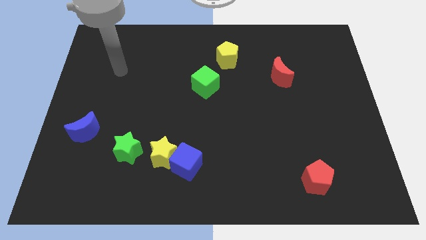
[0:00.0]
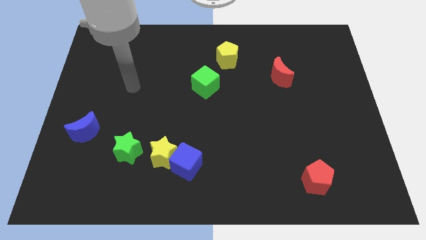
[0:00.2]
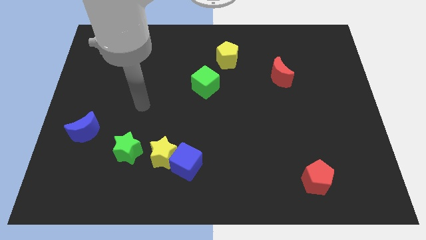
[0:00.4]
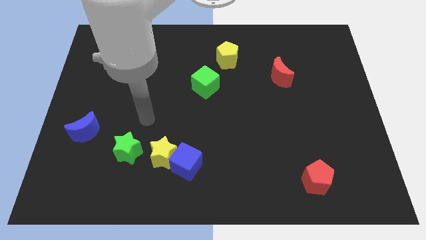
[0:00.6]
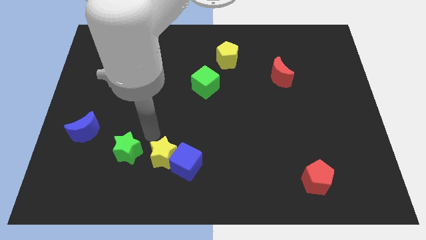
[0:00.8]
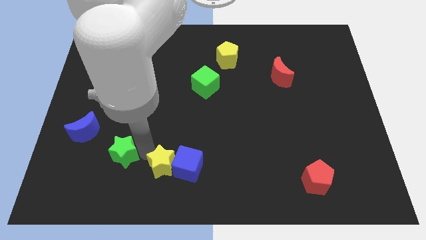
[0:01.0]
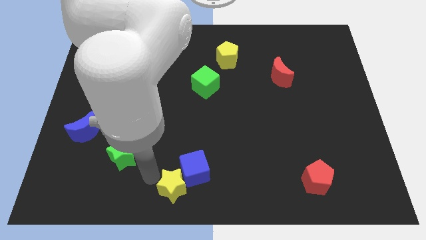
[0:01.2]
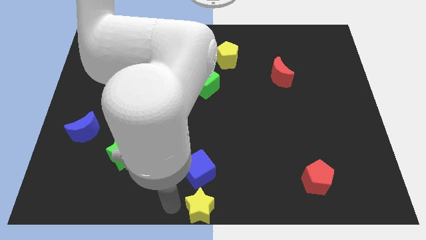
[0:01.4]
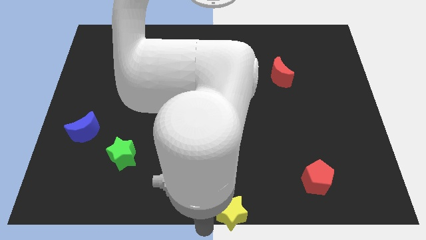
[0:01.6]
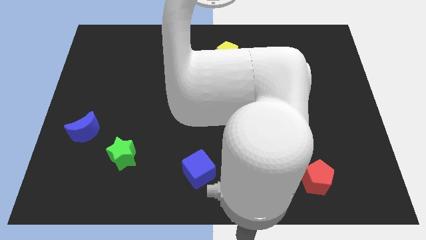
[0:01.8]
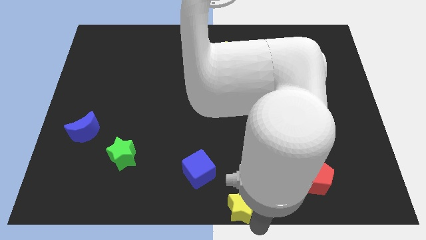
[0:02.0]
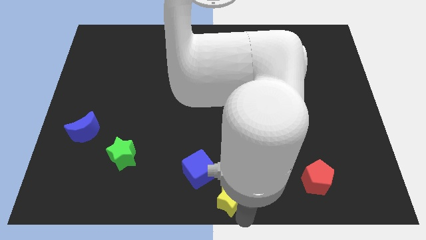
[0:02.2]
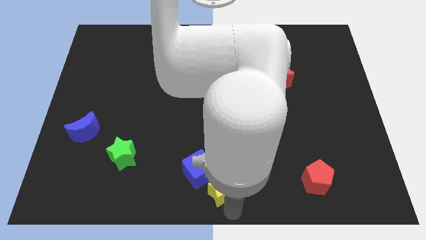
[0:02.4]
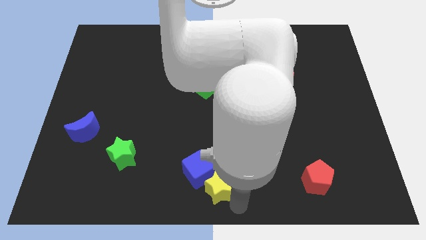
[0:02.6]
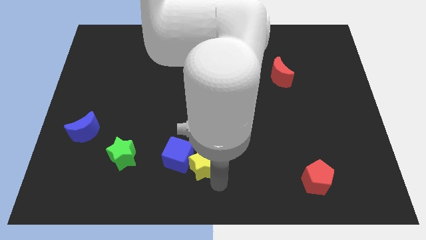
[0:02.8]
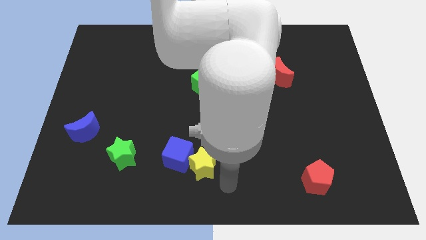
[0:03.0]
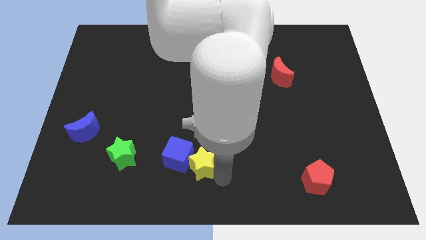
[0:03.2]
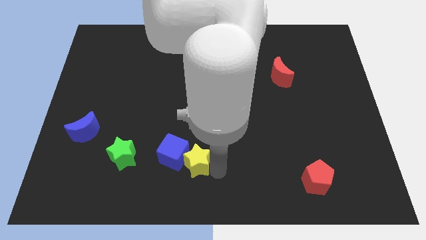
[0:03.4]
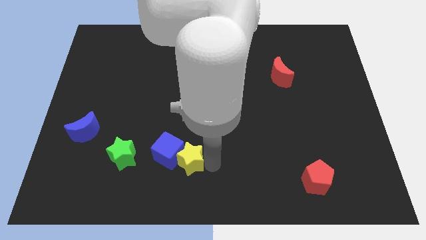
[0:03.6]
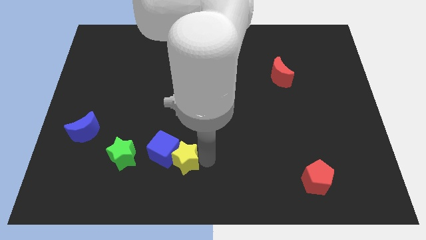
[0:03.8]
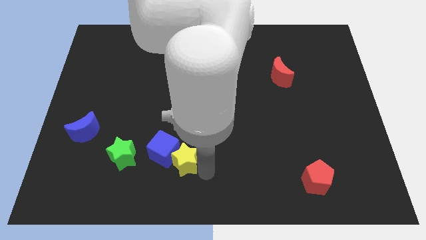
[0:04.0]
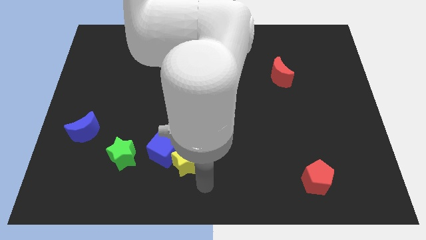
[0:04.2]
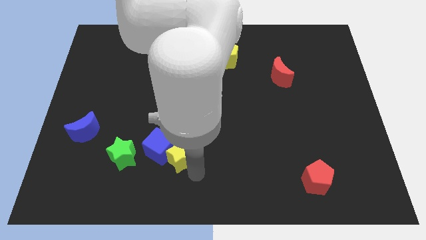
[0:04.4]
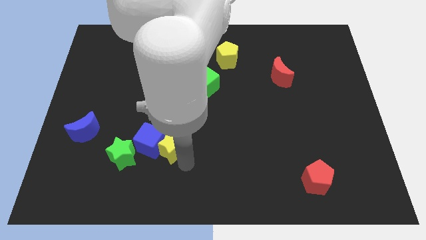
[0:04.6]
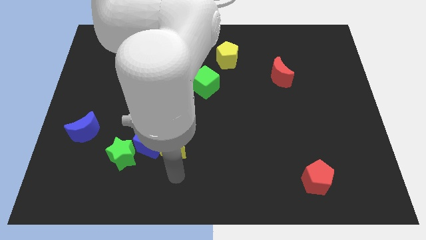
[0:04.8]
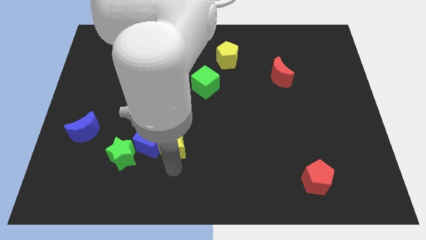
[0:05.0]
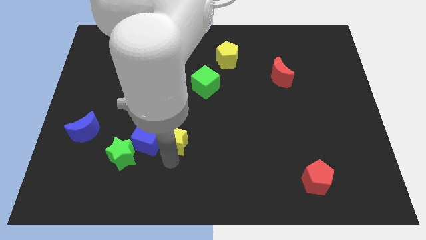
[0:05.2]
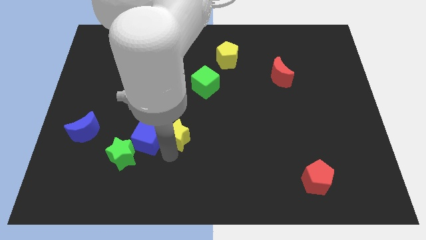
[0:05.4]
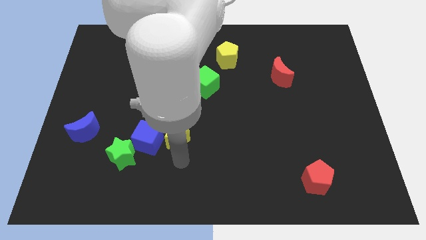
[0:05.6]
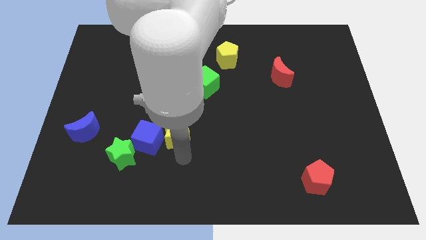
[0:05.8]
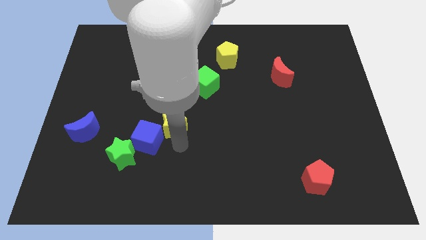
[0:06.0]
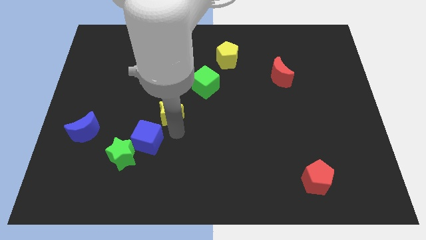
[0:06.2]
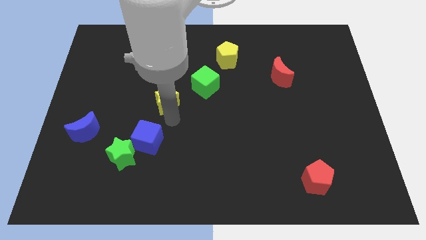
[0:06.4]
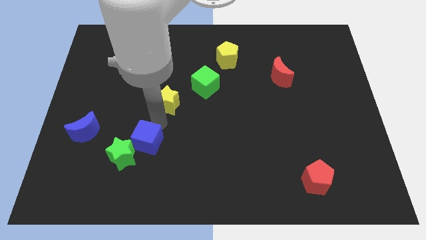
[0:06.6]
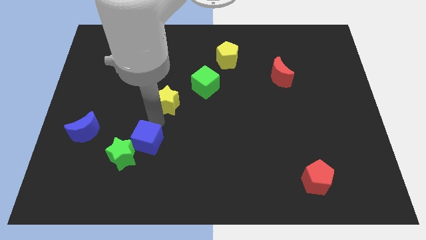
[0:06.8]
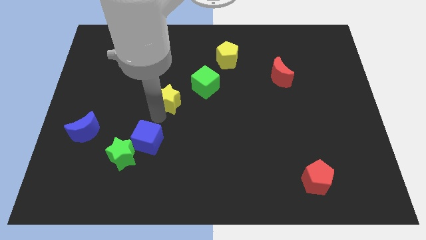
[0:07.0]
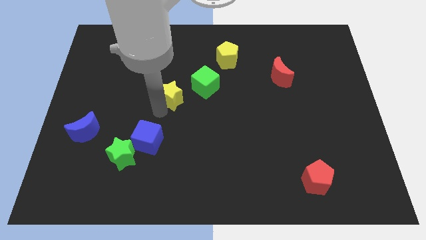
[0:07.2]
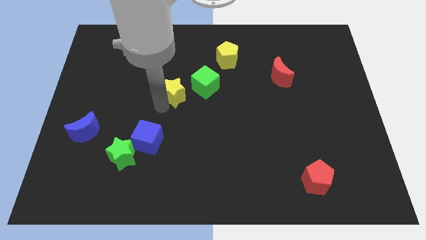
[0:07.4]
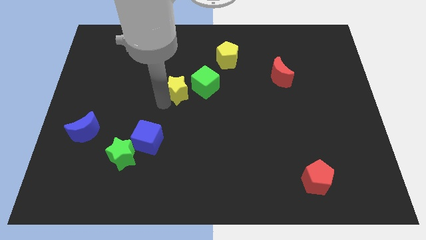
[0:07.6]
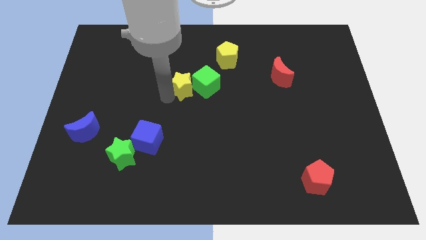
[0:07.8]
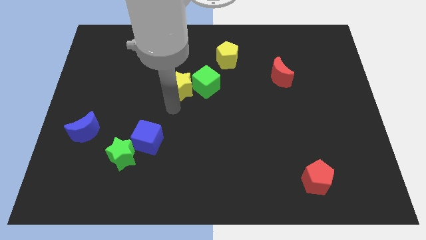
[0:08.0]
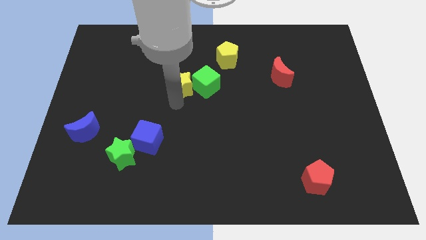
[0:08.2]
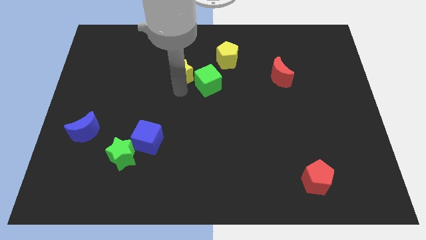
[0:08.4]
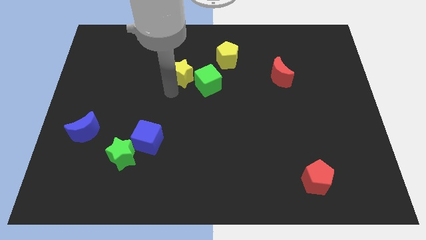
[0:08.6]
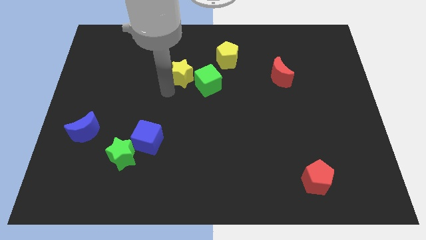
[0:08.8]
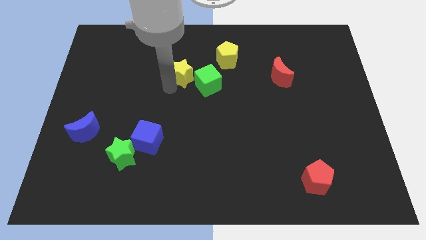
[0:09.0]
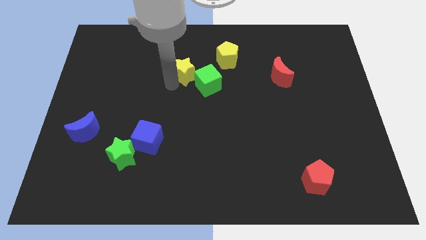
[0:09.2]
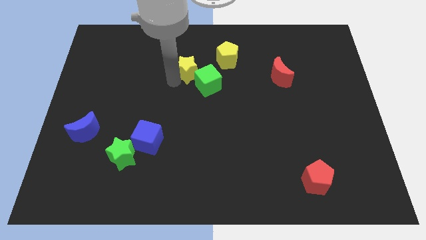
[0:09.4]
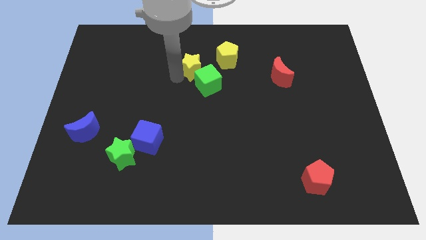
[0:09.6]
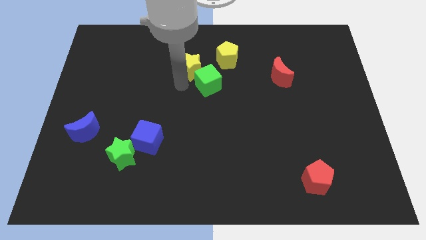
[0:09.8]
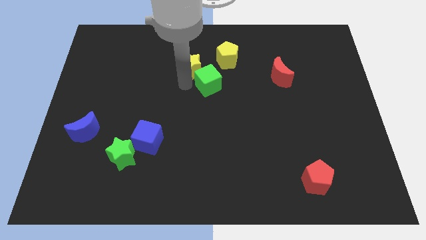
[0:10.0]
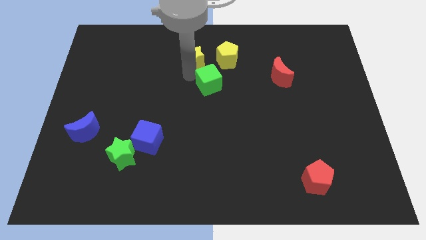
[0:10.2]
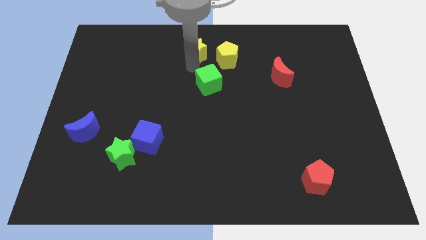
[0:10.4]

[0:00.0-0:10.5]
put the yellow star to the top

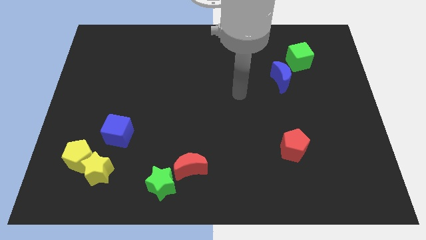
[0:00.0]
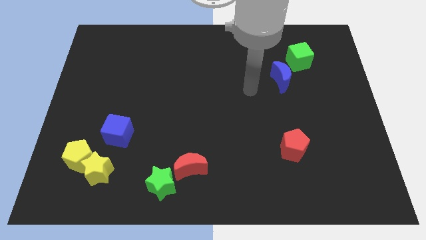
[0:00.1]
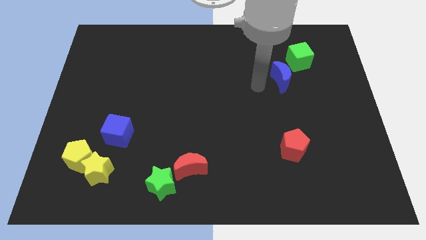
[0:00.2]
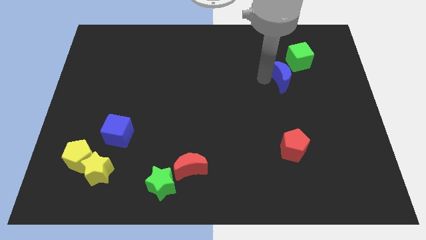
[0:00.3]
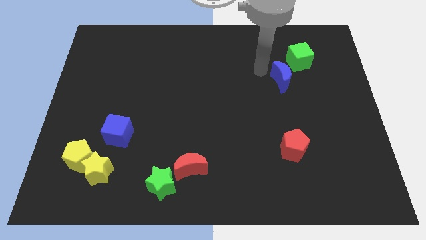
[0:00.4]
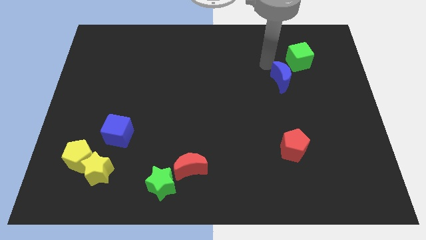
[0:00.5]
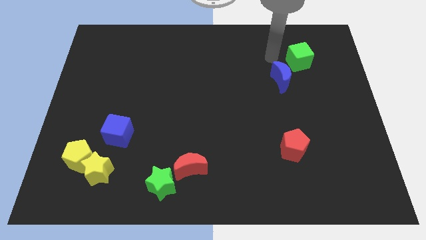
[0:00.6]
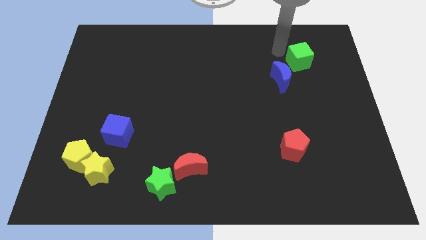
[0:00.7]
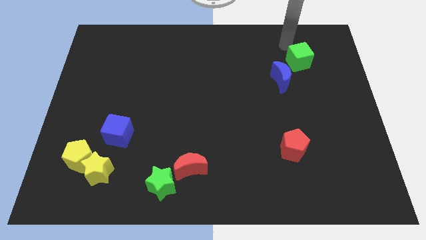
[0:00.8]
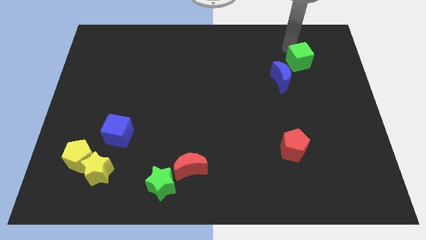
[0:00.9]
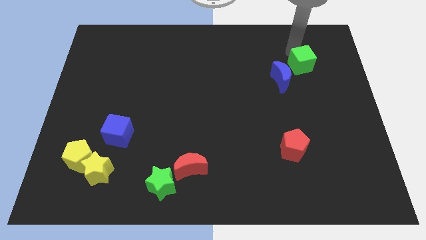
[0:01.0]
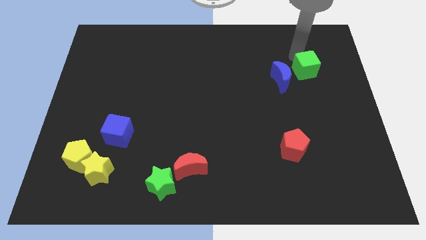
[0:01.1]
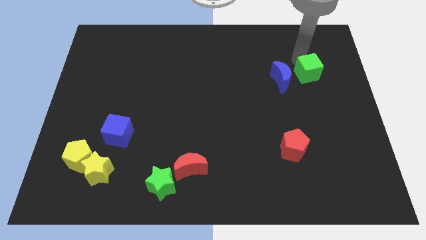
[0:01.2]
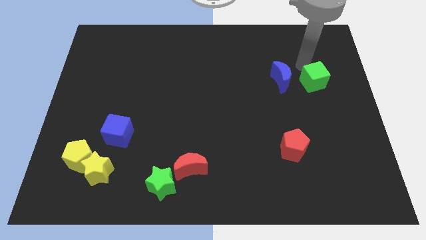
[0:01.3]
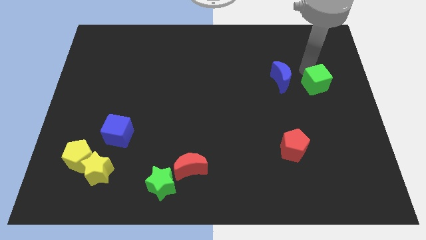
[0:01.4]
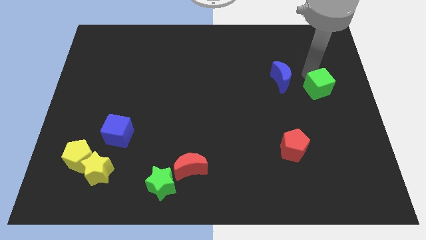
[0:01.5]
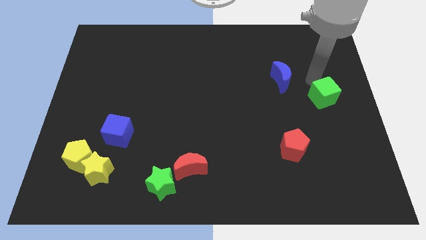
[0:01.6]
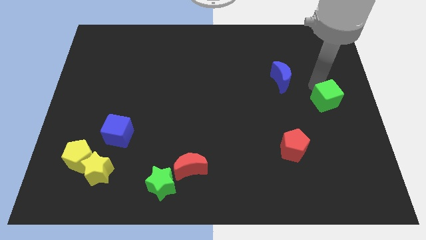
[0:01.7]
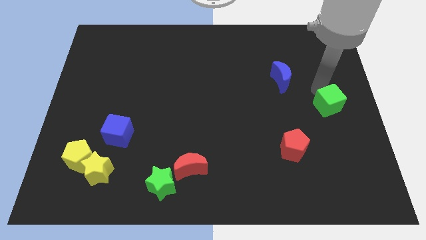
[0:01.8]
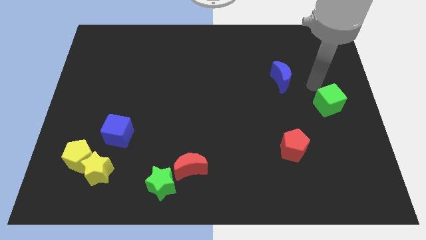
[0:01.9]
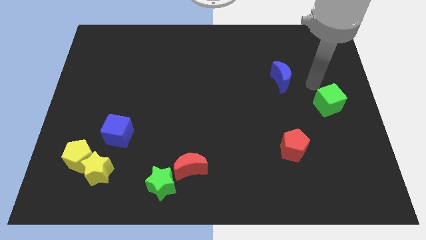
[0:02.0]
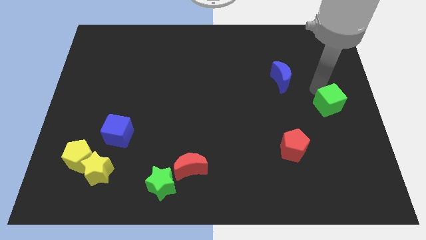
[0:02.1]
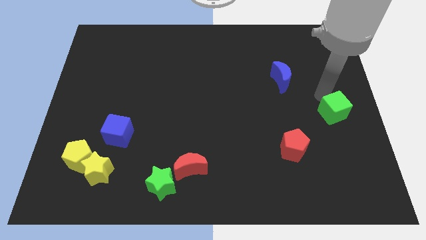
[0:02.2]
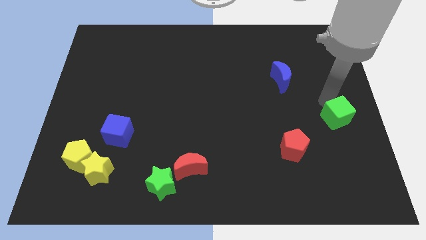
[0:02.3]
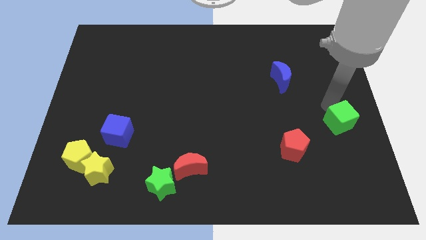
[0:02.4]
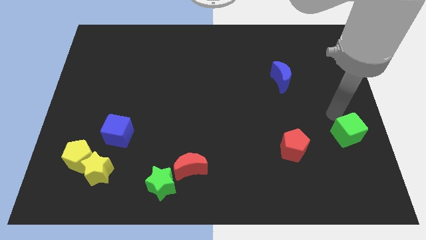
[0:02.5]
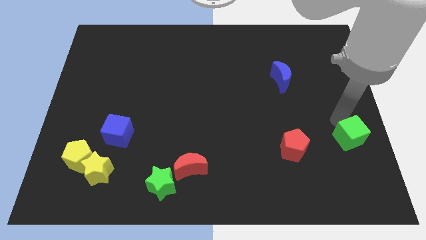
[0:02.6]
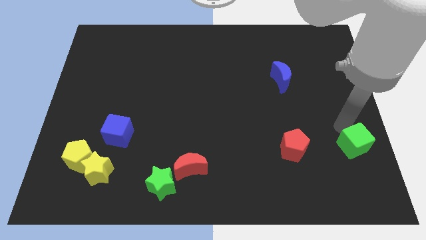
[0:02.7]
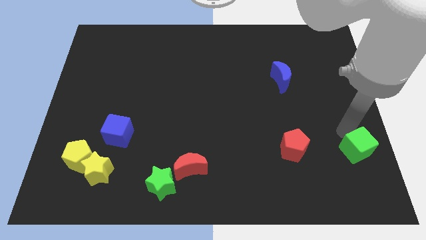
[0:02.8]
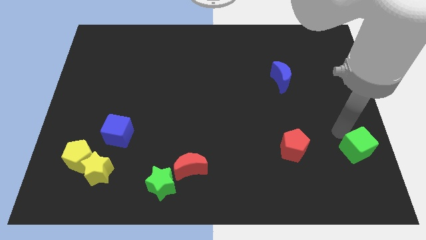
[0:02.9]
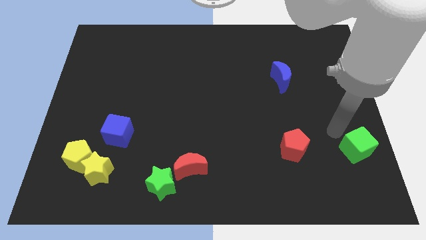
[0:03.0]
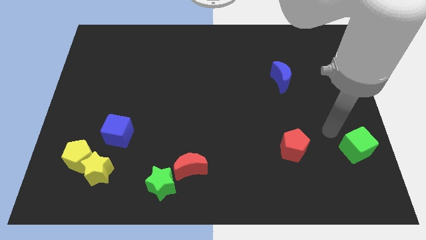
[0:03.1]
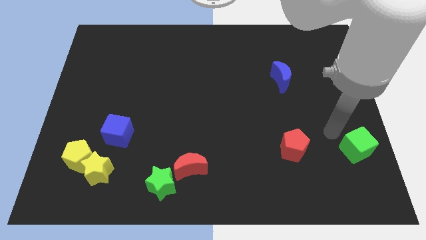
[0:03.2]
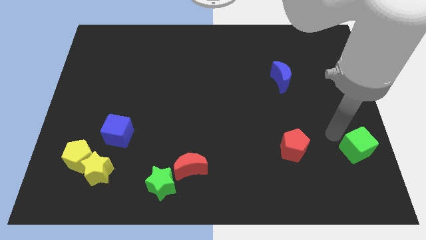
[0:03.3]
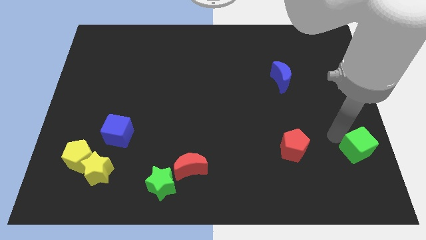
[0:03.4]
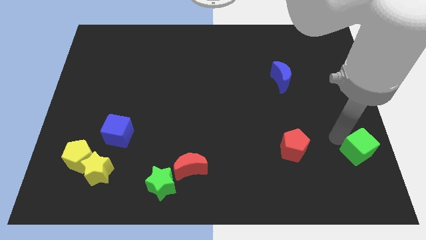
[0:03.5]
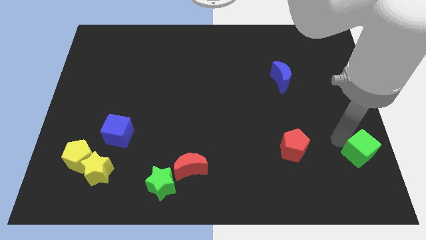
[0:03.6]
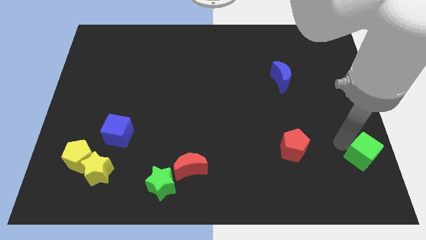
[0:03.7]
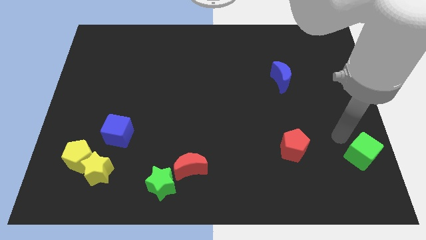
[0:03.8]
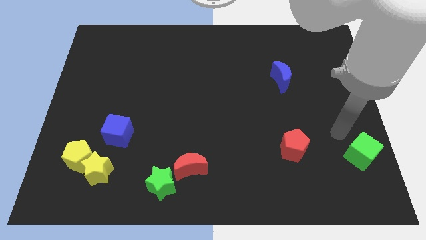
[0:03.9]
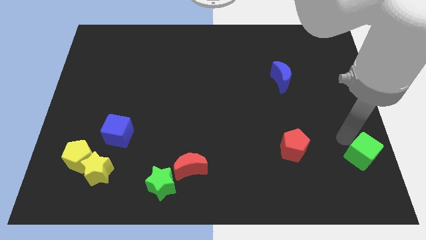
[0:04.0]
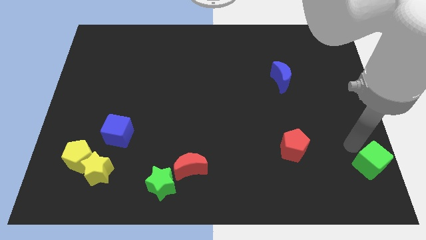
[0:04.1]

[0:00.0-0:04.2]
slide the green cube to the bottom right of the board
